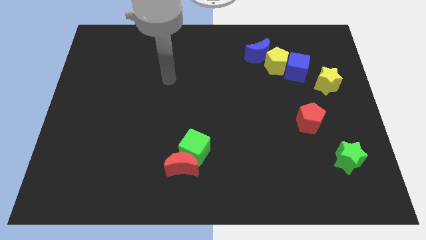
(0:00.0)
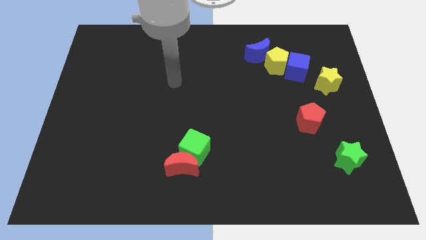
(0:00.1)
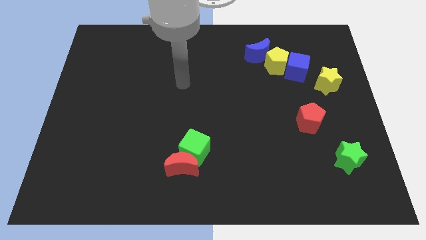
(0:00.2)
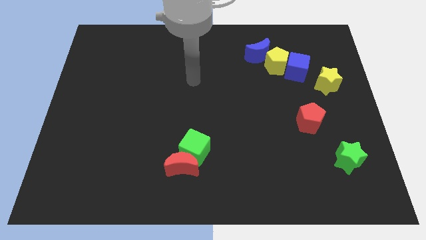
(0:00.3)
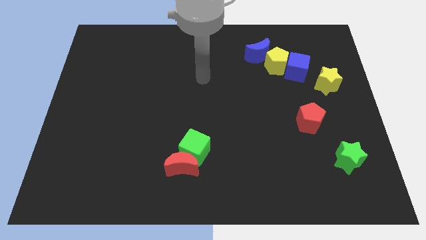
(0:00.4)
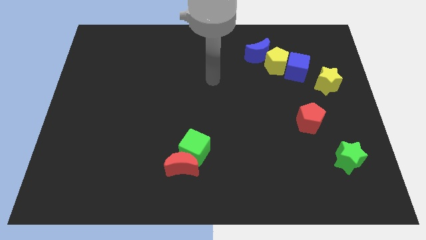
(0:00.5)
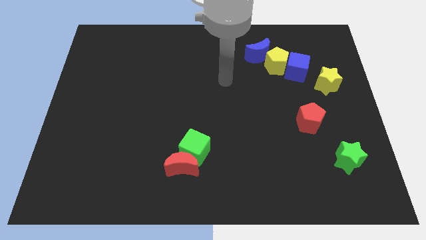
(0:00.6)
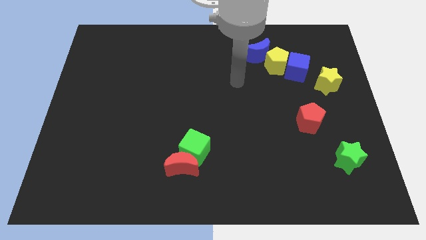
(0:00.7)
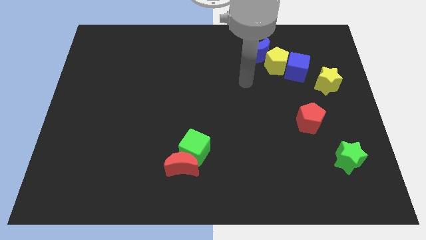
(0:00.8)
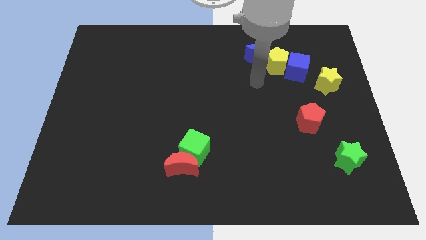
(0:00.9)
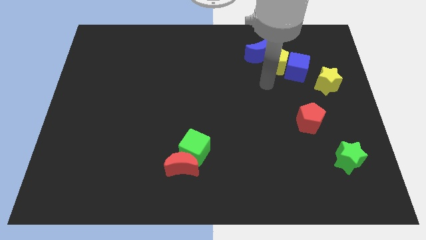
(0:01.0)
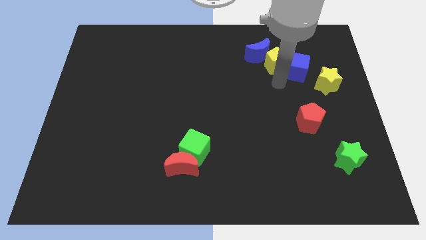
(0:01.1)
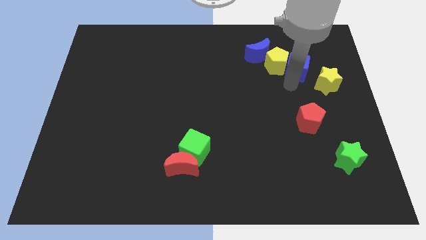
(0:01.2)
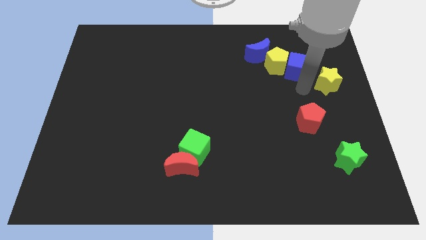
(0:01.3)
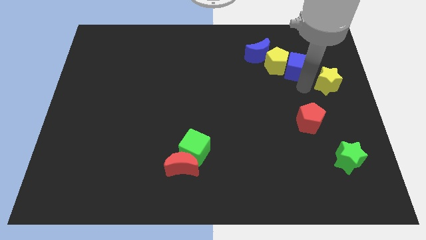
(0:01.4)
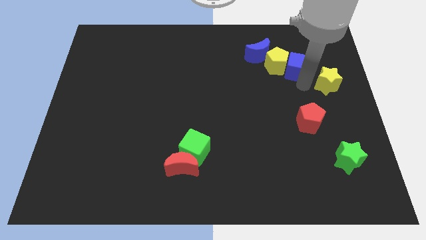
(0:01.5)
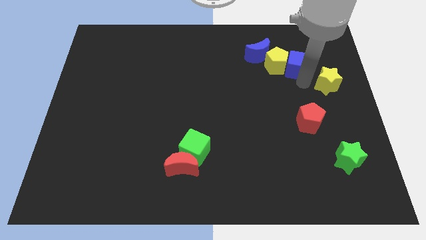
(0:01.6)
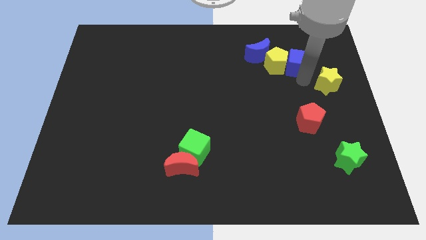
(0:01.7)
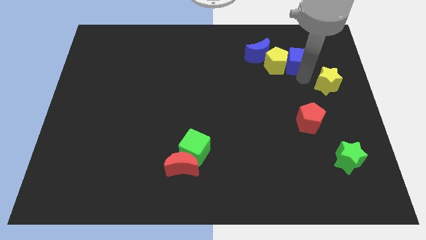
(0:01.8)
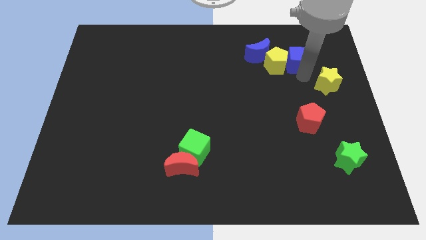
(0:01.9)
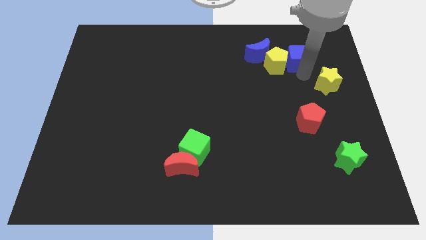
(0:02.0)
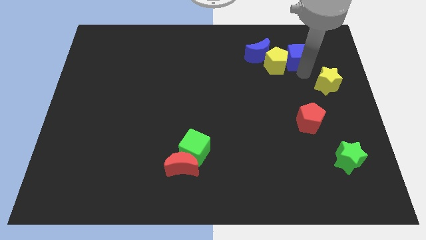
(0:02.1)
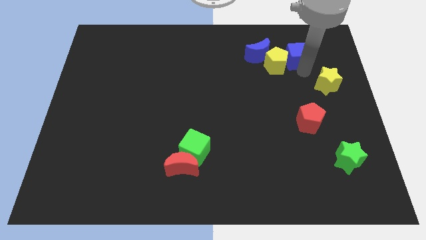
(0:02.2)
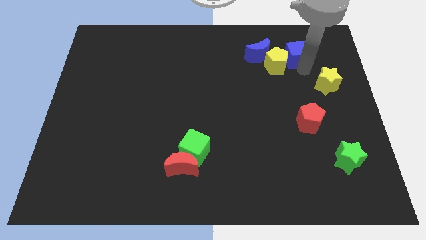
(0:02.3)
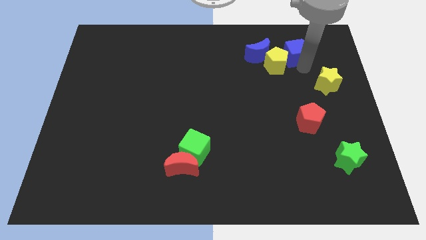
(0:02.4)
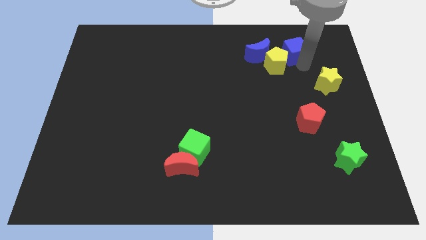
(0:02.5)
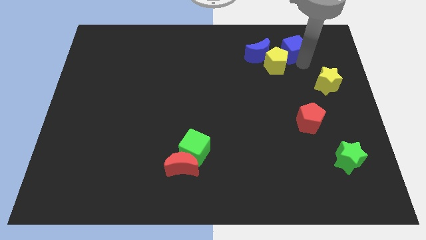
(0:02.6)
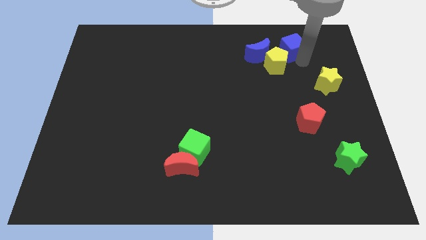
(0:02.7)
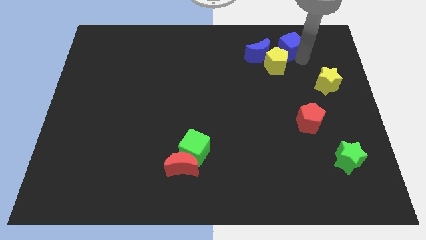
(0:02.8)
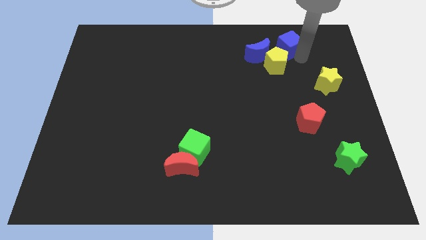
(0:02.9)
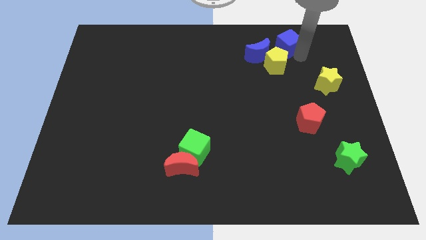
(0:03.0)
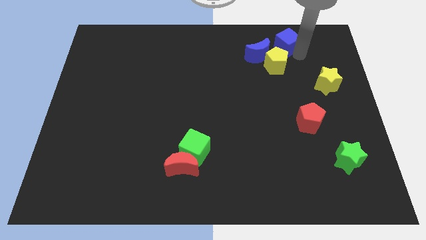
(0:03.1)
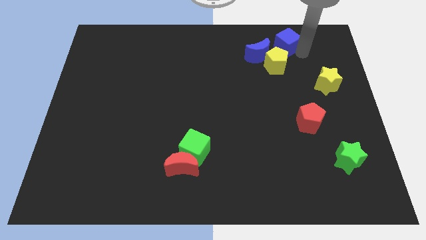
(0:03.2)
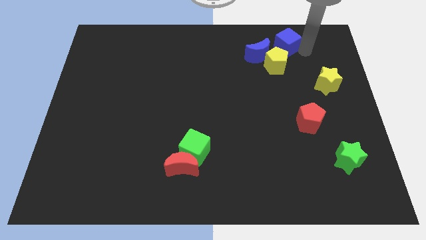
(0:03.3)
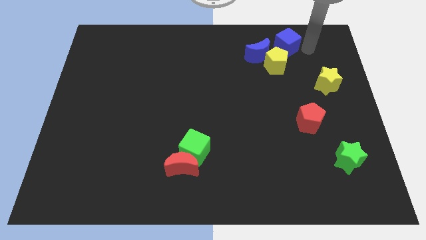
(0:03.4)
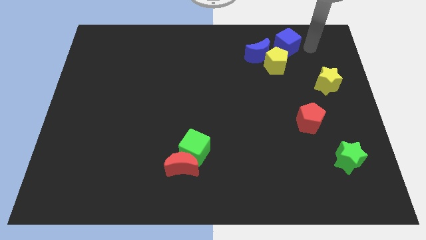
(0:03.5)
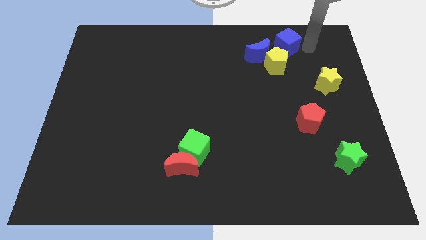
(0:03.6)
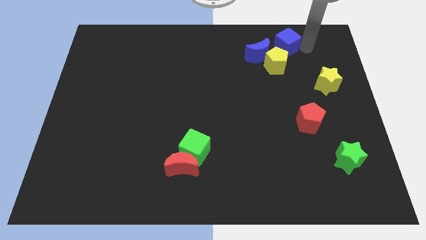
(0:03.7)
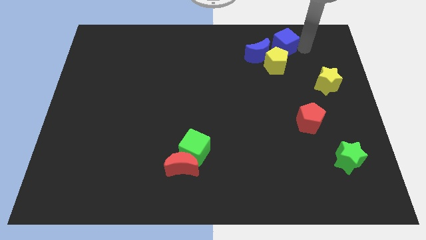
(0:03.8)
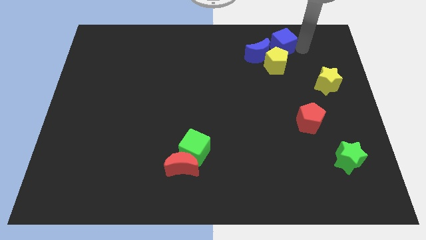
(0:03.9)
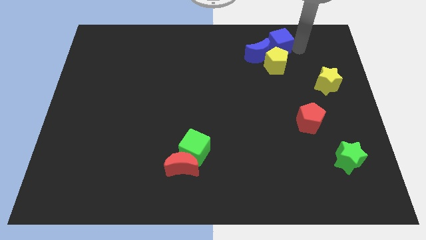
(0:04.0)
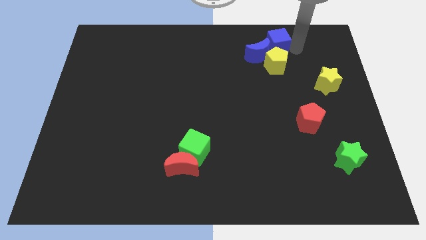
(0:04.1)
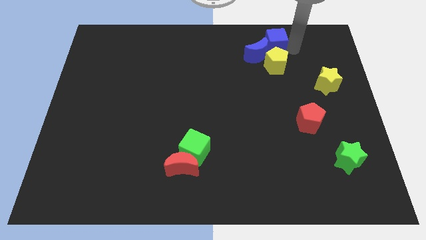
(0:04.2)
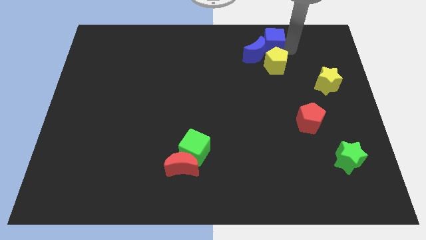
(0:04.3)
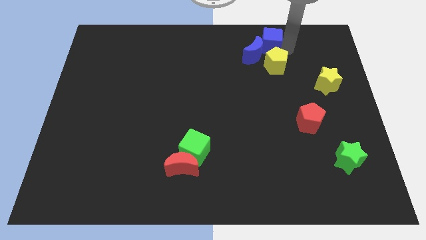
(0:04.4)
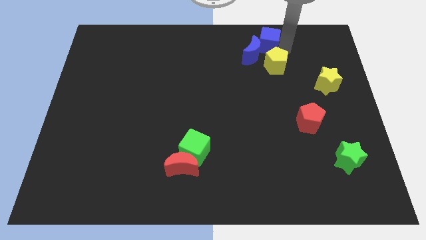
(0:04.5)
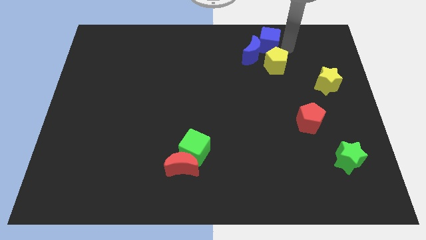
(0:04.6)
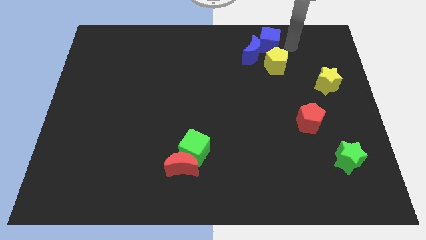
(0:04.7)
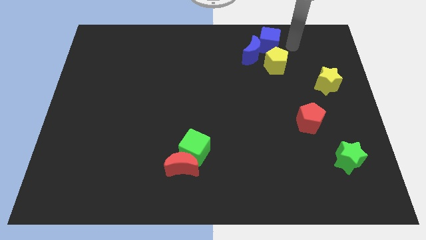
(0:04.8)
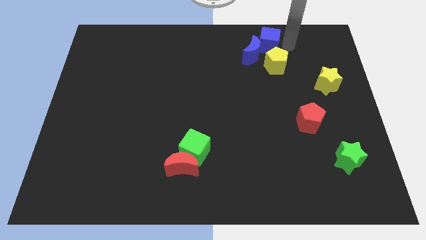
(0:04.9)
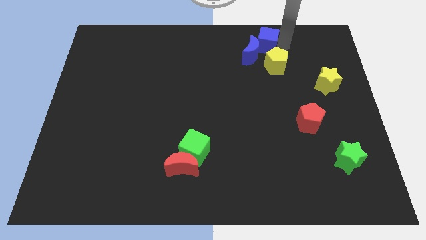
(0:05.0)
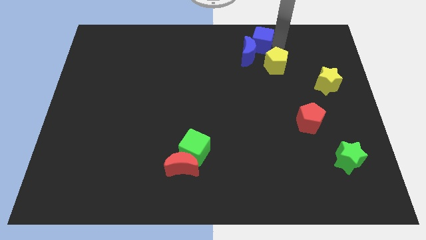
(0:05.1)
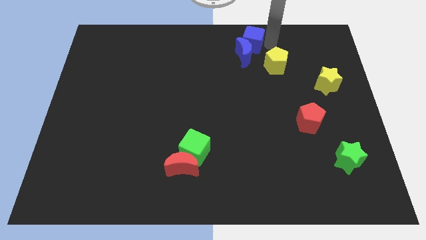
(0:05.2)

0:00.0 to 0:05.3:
put the blue cube to the towards your base

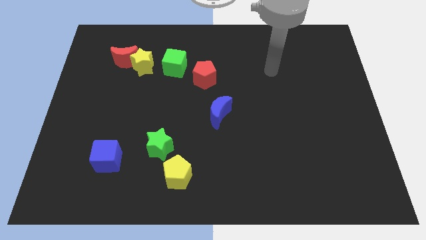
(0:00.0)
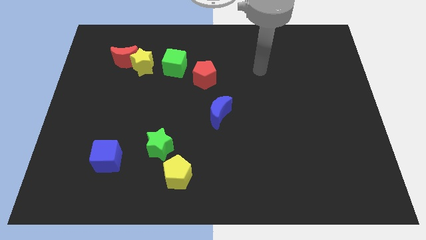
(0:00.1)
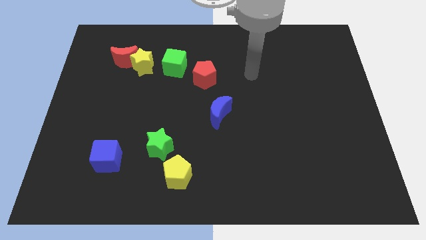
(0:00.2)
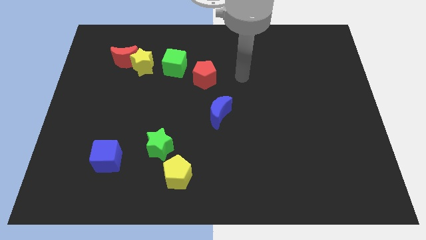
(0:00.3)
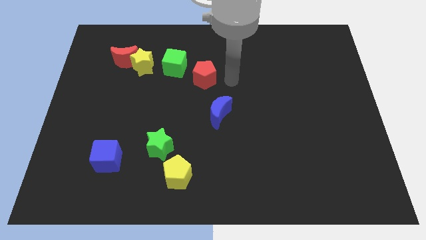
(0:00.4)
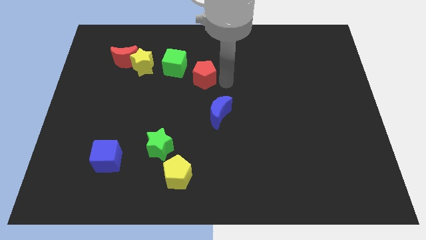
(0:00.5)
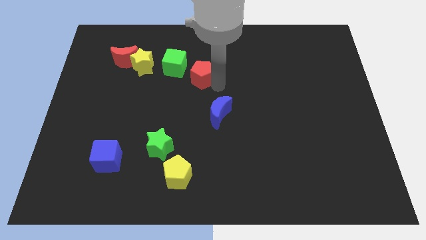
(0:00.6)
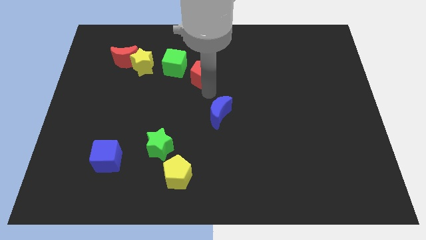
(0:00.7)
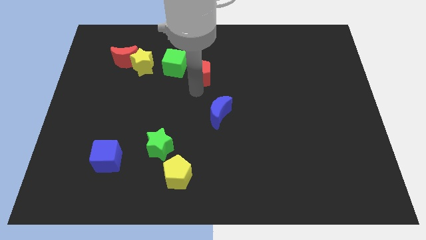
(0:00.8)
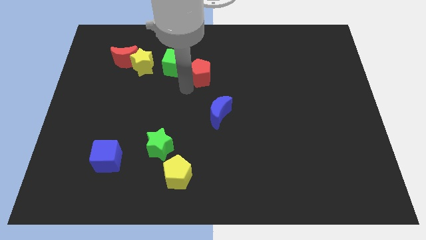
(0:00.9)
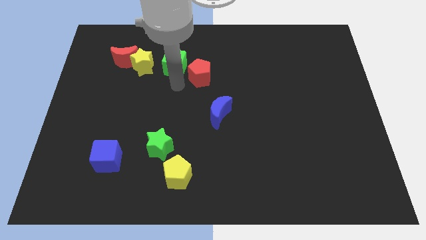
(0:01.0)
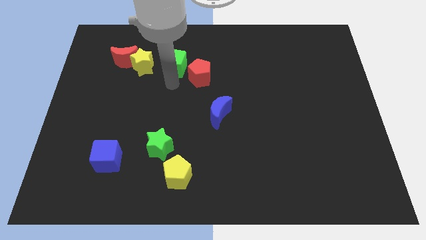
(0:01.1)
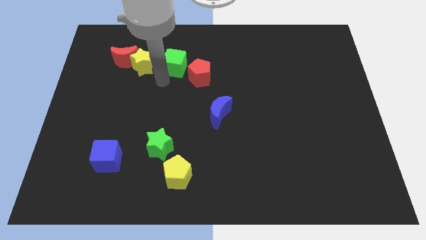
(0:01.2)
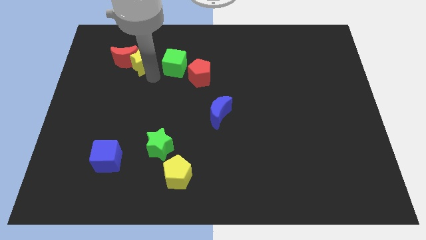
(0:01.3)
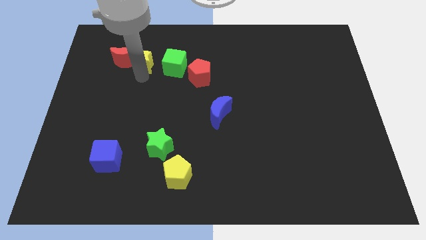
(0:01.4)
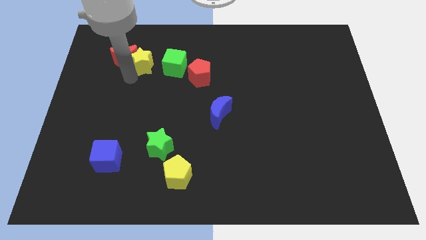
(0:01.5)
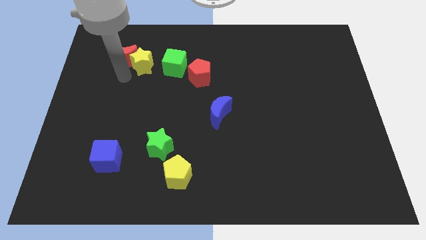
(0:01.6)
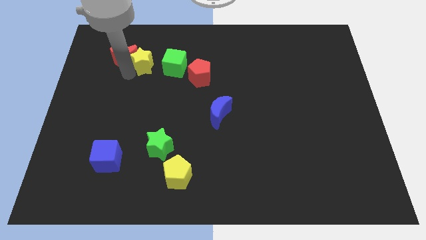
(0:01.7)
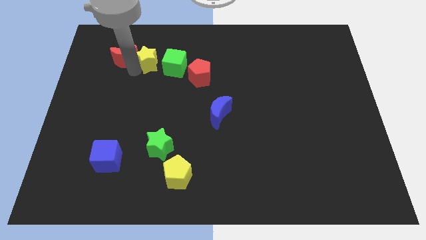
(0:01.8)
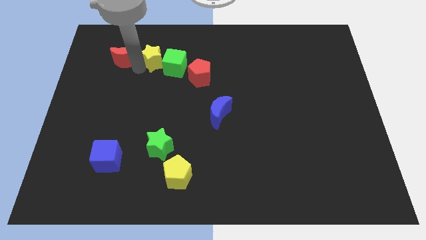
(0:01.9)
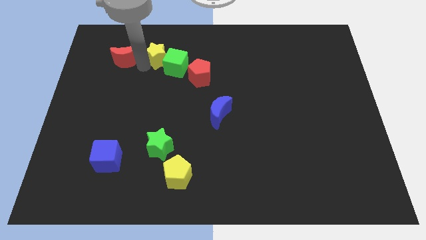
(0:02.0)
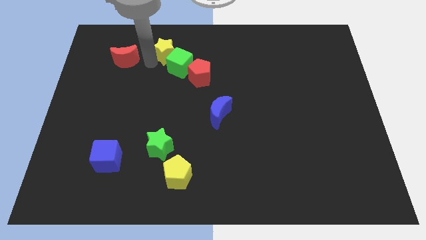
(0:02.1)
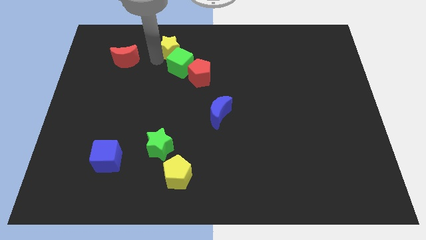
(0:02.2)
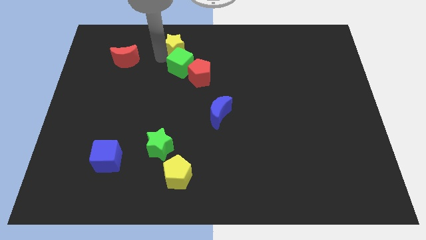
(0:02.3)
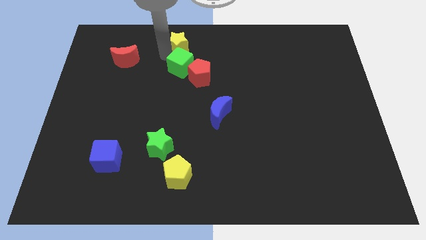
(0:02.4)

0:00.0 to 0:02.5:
put the yellow star to the top
